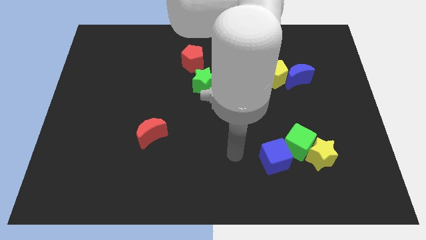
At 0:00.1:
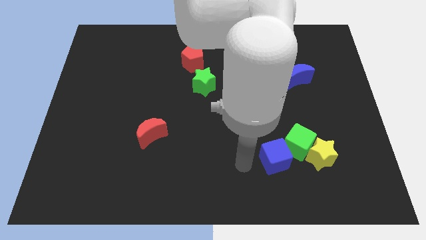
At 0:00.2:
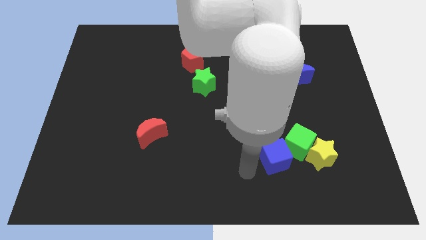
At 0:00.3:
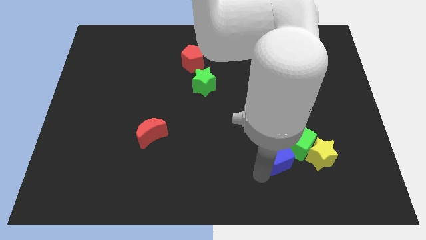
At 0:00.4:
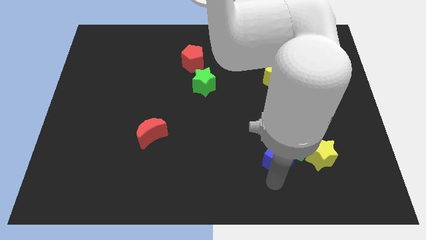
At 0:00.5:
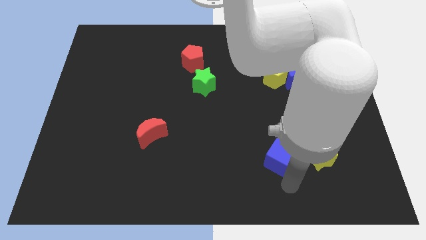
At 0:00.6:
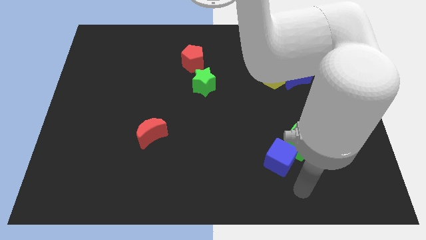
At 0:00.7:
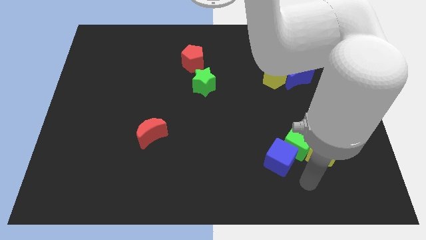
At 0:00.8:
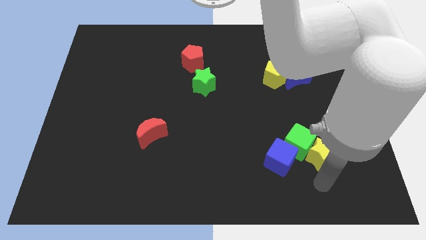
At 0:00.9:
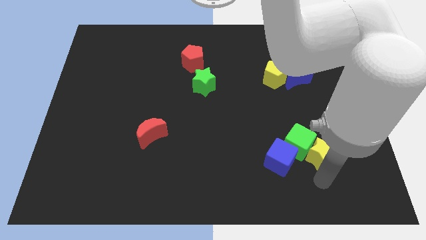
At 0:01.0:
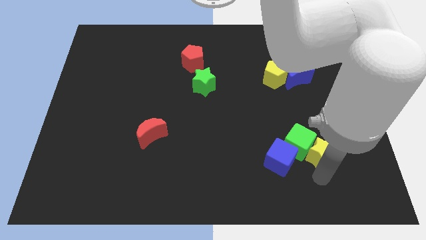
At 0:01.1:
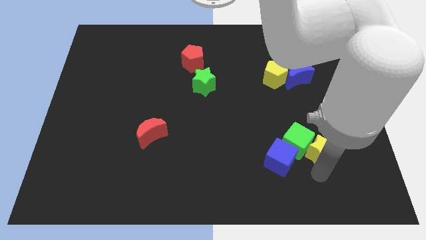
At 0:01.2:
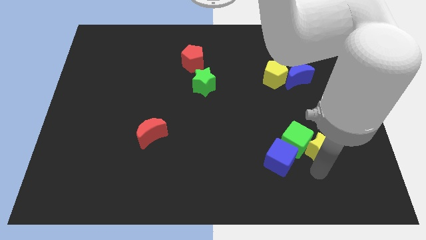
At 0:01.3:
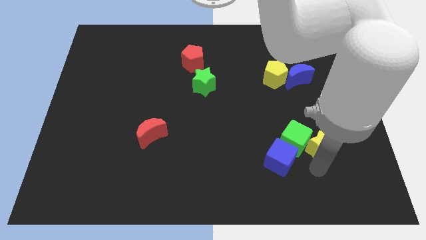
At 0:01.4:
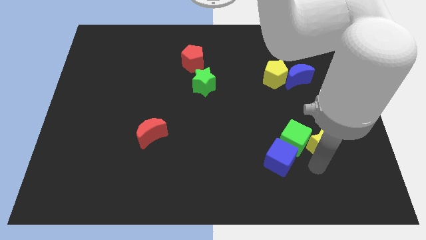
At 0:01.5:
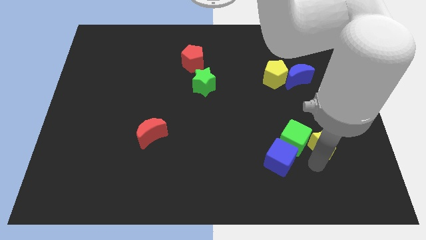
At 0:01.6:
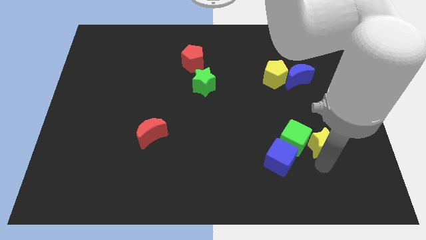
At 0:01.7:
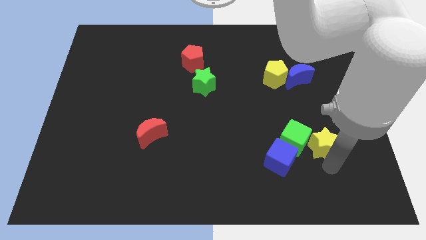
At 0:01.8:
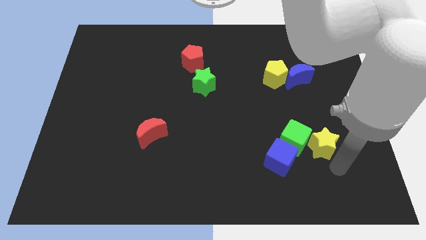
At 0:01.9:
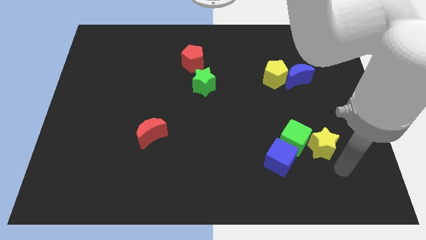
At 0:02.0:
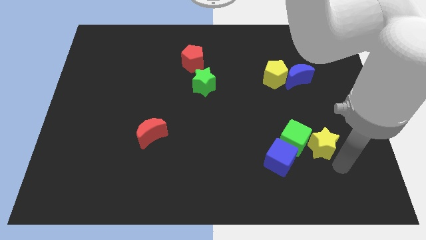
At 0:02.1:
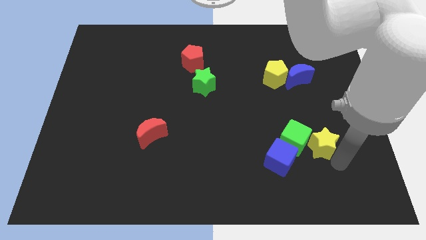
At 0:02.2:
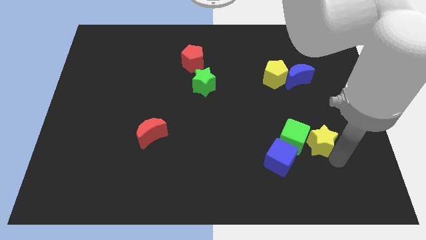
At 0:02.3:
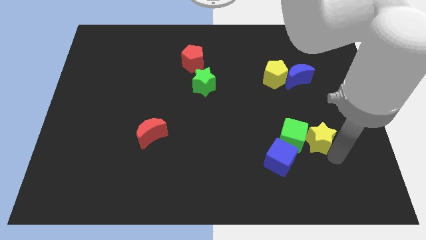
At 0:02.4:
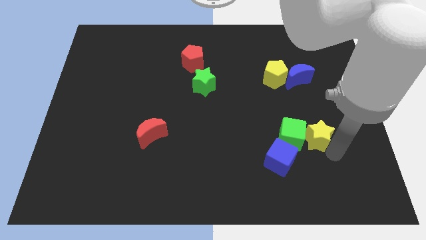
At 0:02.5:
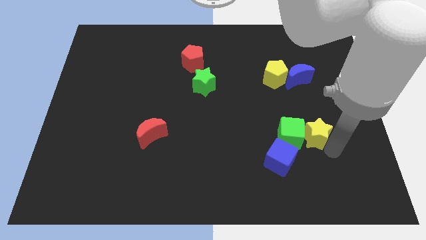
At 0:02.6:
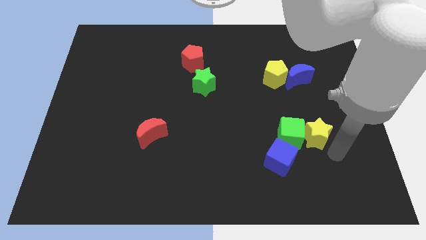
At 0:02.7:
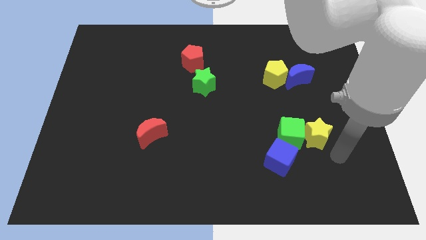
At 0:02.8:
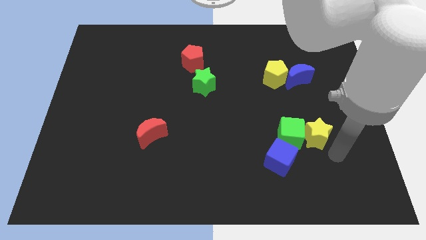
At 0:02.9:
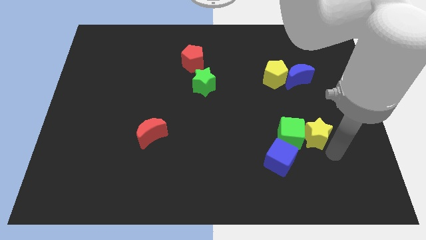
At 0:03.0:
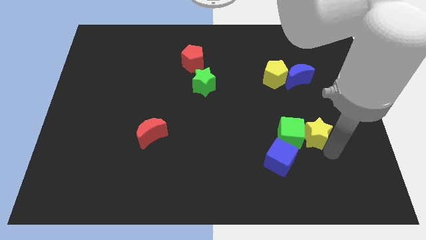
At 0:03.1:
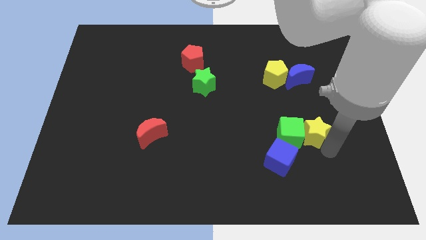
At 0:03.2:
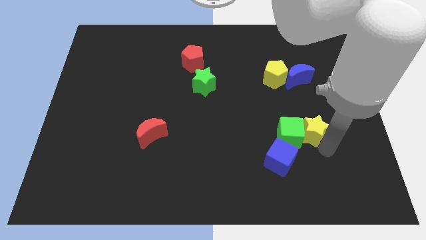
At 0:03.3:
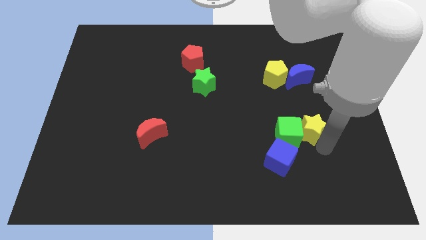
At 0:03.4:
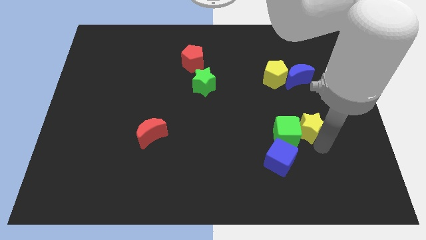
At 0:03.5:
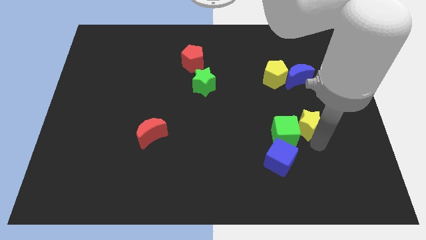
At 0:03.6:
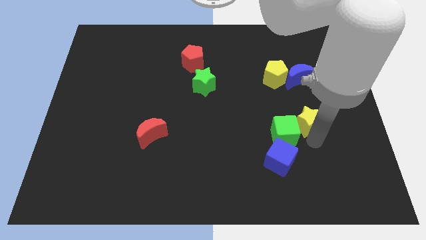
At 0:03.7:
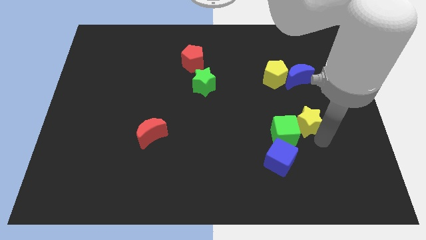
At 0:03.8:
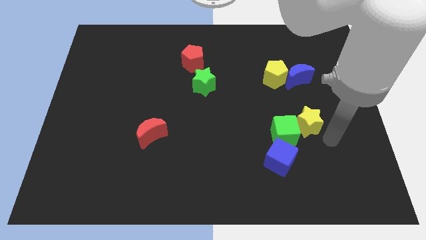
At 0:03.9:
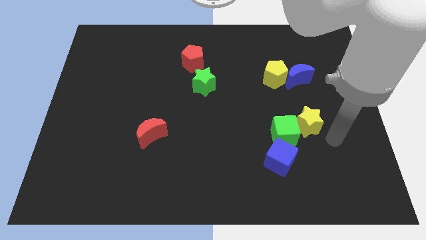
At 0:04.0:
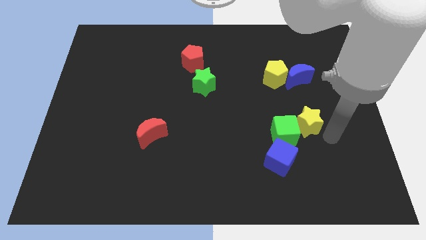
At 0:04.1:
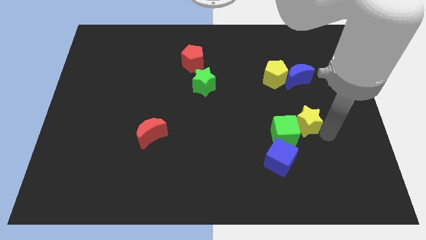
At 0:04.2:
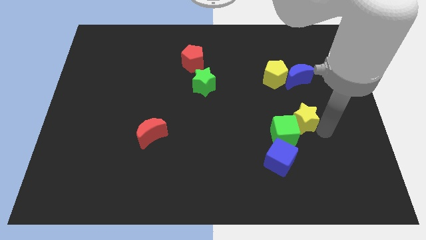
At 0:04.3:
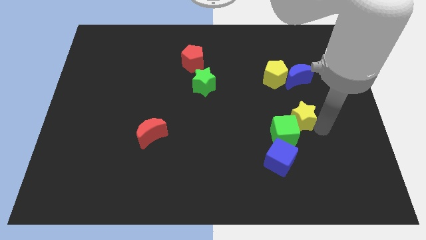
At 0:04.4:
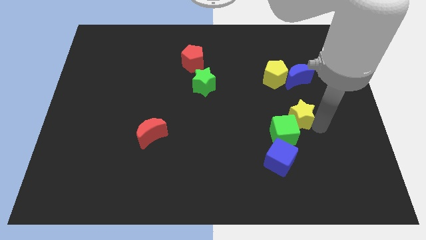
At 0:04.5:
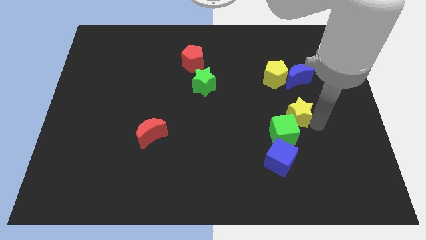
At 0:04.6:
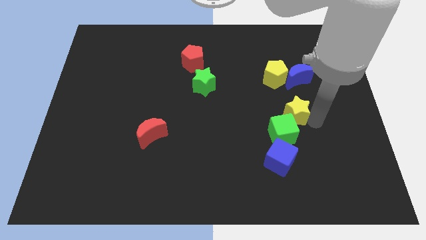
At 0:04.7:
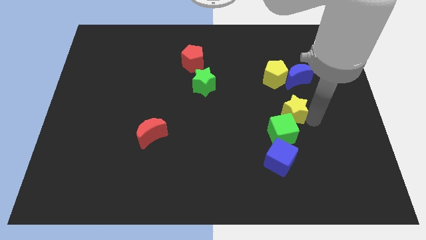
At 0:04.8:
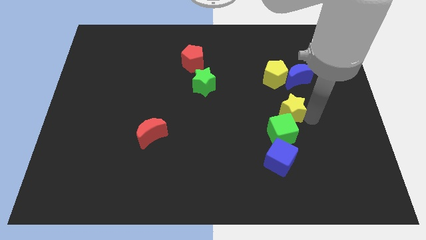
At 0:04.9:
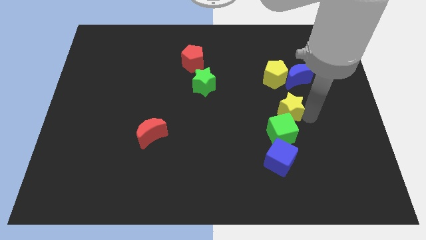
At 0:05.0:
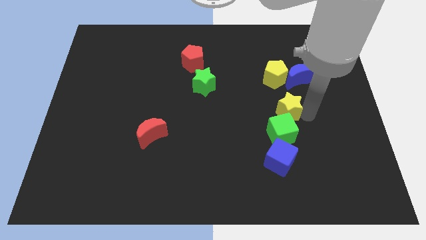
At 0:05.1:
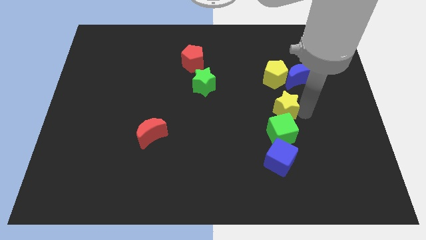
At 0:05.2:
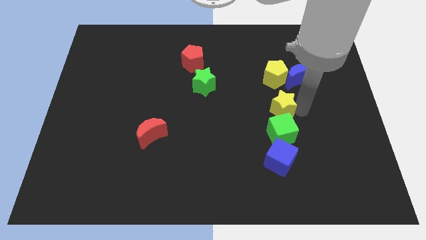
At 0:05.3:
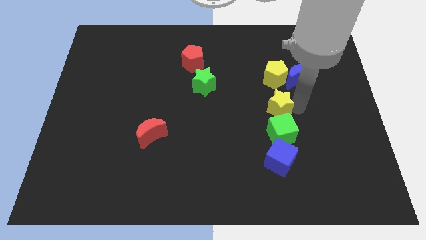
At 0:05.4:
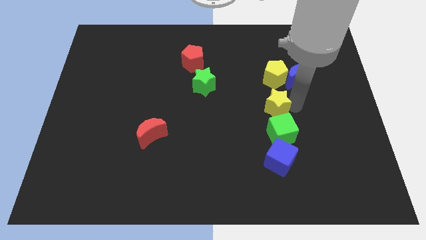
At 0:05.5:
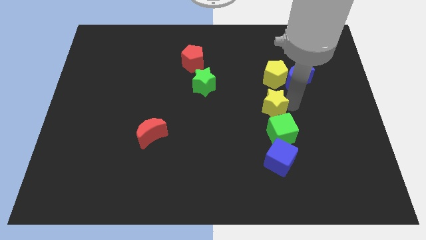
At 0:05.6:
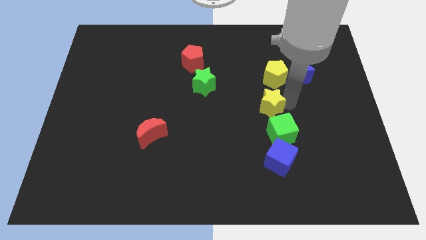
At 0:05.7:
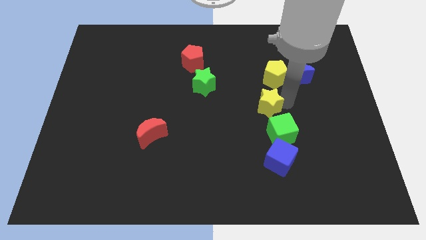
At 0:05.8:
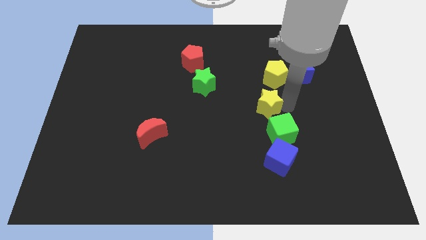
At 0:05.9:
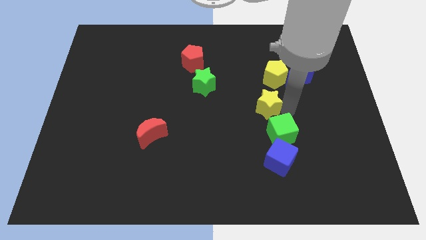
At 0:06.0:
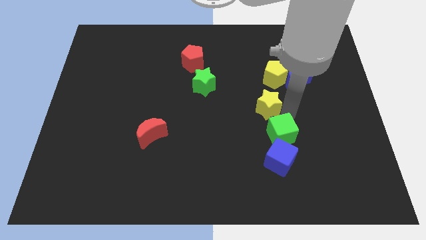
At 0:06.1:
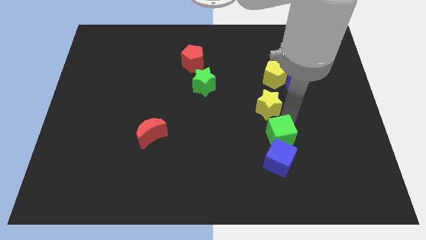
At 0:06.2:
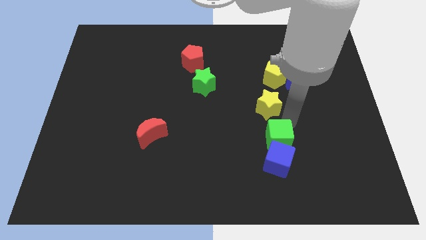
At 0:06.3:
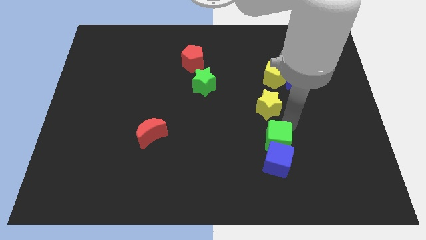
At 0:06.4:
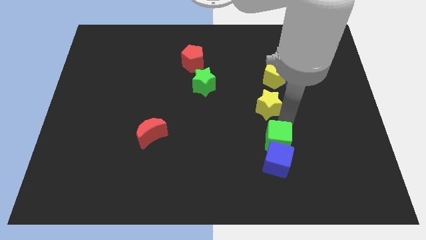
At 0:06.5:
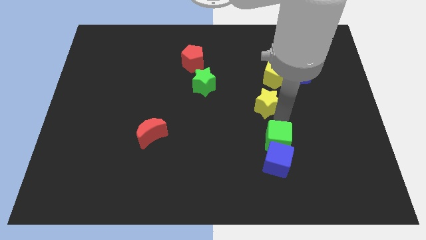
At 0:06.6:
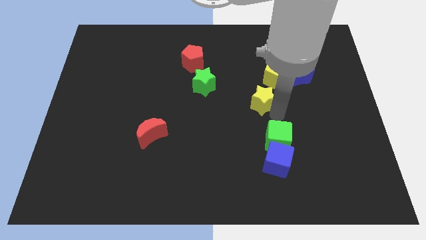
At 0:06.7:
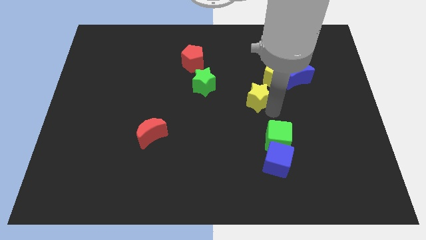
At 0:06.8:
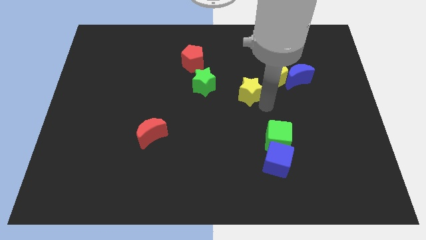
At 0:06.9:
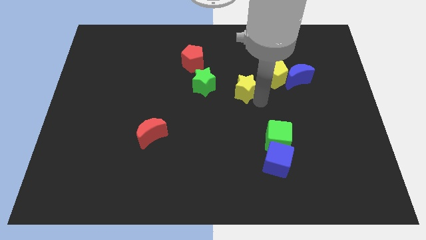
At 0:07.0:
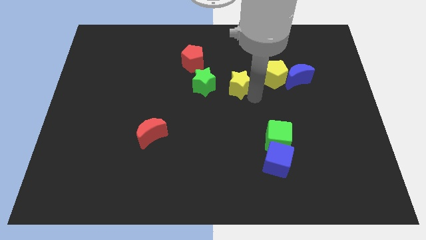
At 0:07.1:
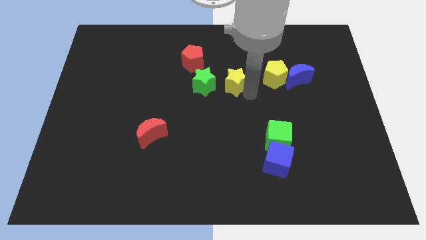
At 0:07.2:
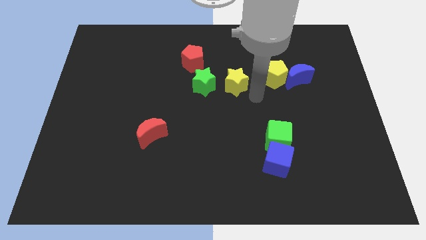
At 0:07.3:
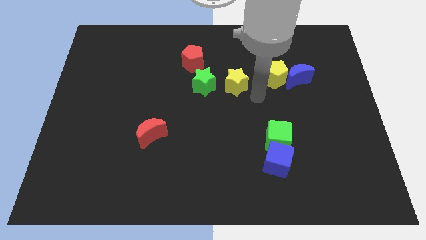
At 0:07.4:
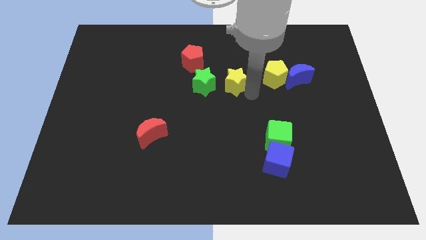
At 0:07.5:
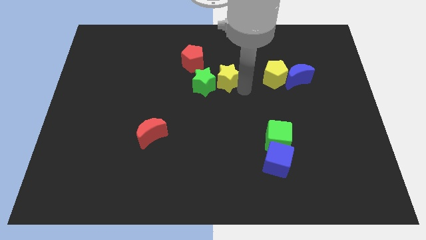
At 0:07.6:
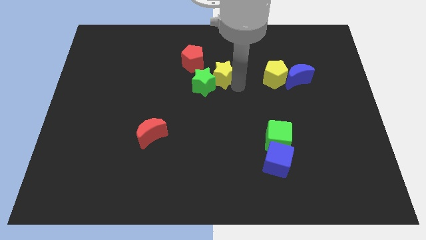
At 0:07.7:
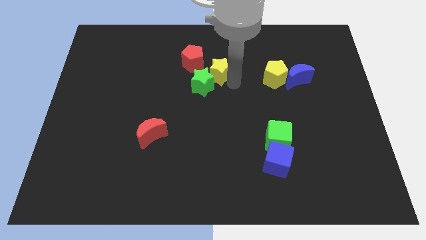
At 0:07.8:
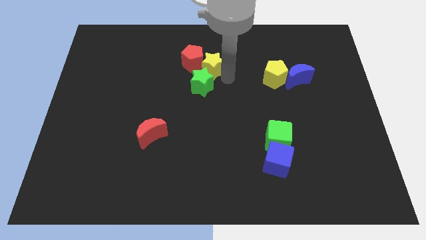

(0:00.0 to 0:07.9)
push the yellow star towards the red pentagon
